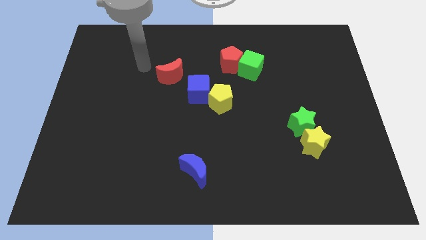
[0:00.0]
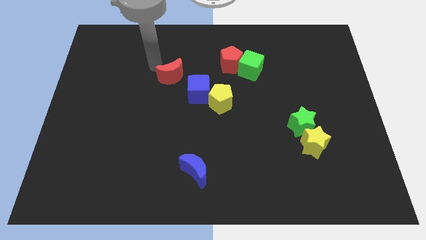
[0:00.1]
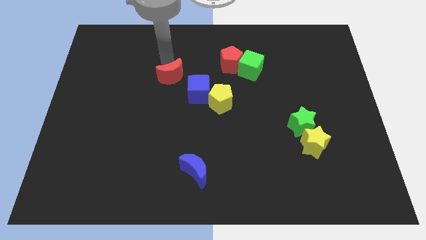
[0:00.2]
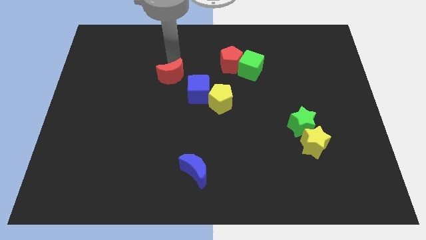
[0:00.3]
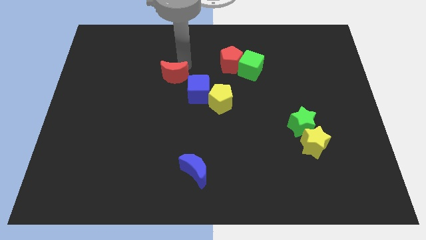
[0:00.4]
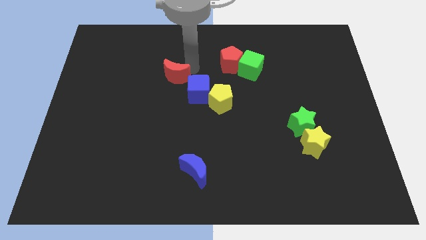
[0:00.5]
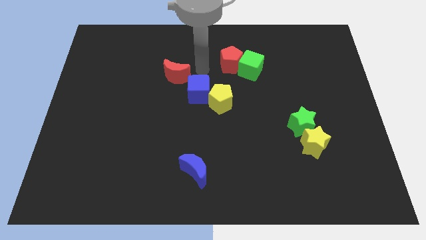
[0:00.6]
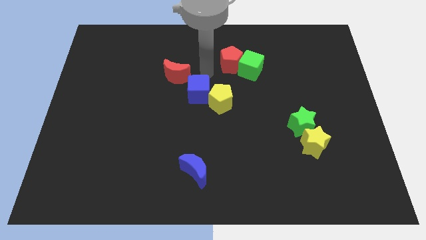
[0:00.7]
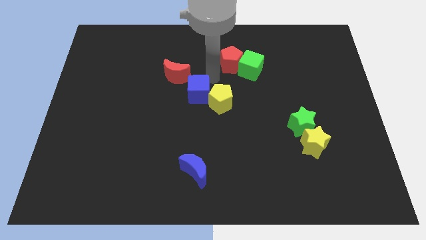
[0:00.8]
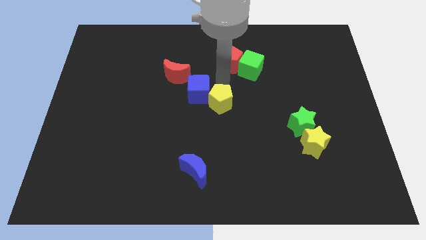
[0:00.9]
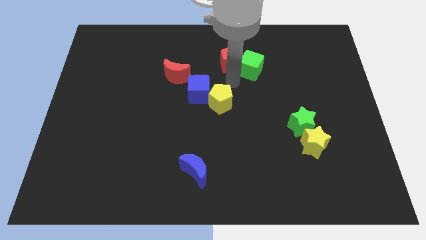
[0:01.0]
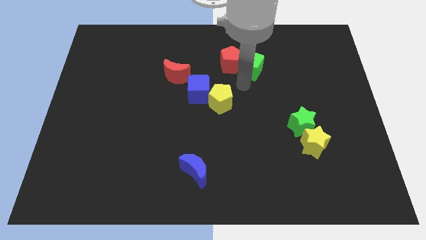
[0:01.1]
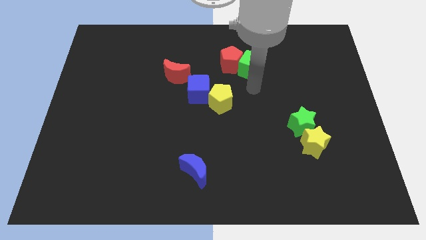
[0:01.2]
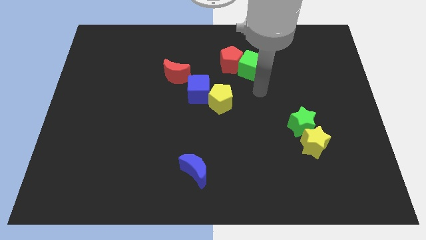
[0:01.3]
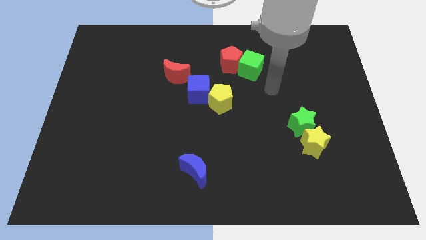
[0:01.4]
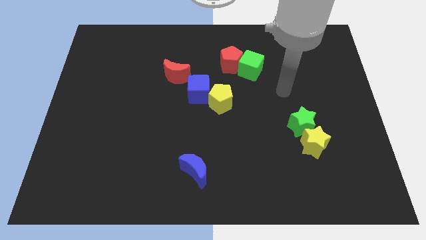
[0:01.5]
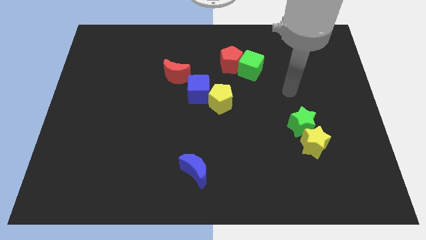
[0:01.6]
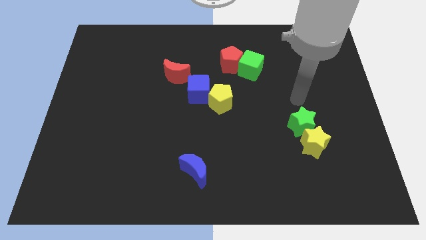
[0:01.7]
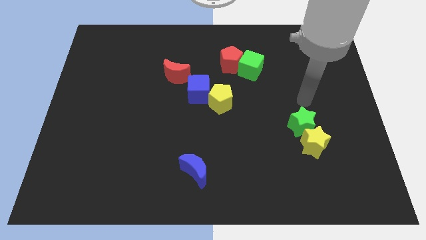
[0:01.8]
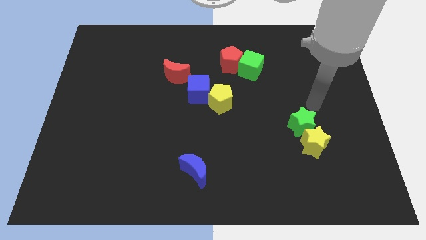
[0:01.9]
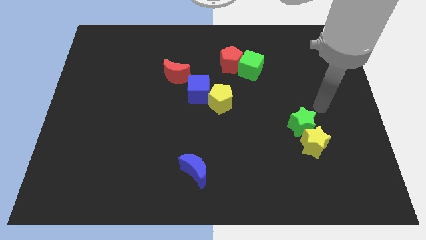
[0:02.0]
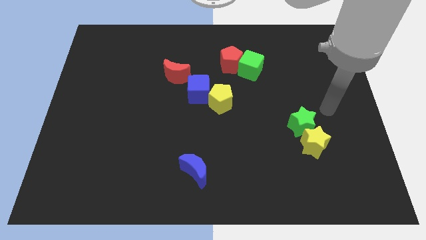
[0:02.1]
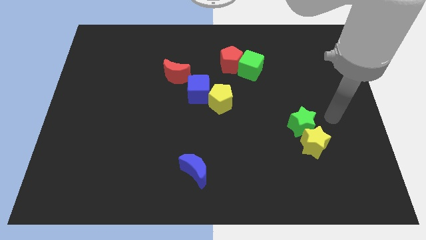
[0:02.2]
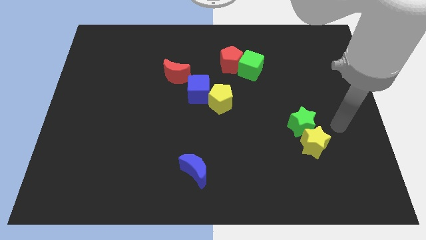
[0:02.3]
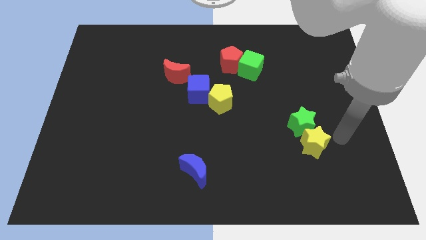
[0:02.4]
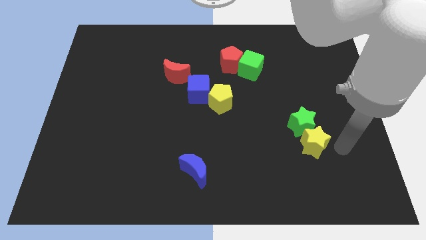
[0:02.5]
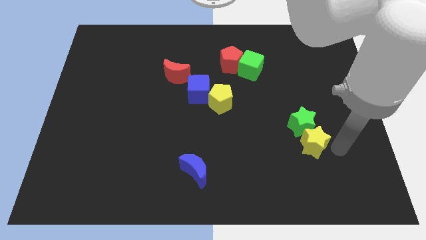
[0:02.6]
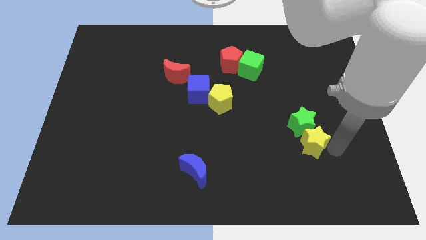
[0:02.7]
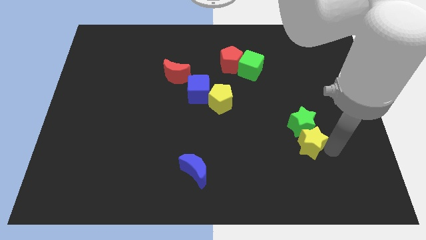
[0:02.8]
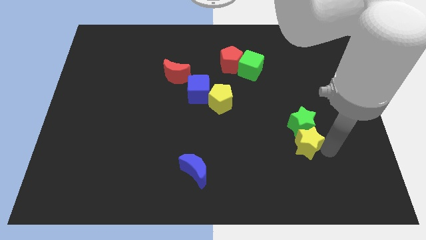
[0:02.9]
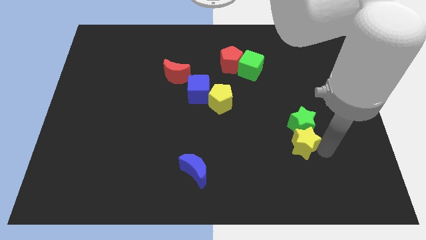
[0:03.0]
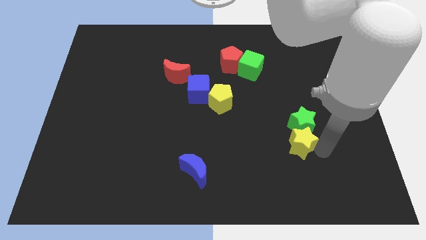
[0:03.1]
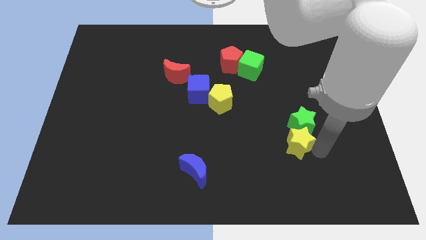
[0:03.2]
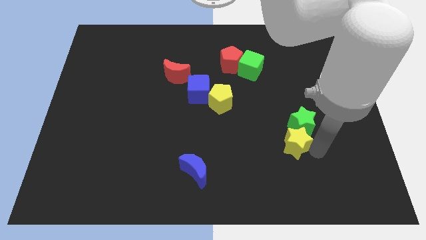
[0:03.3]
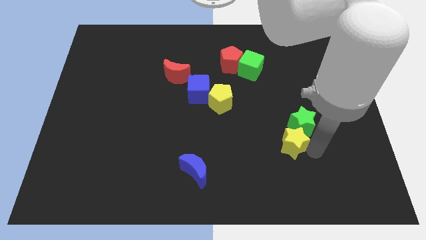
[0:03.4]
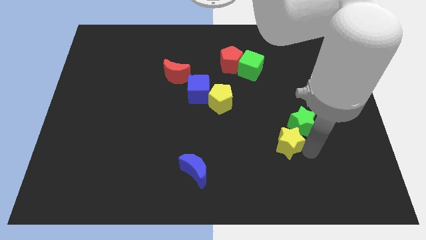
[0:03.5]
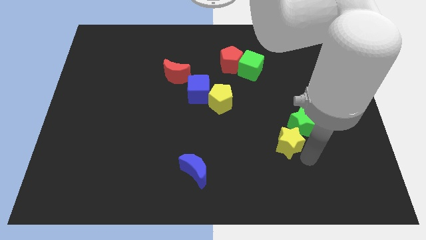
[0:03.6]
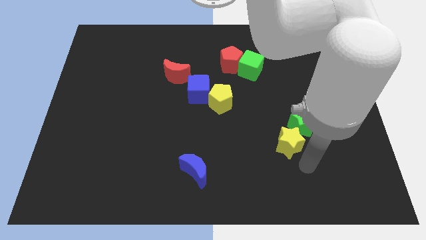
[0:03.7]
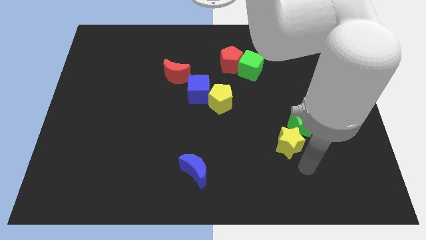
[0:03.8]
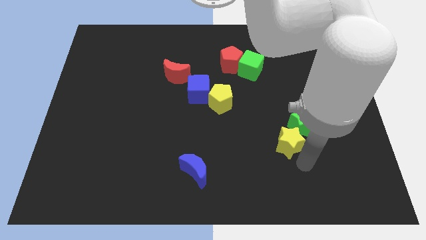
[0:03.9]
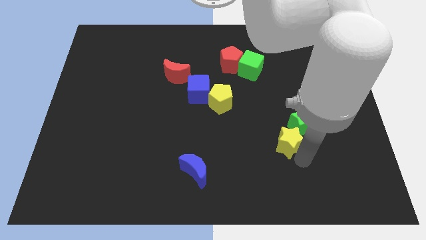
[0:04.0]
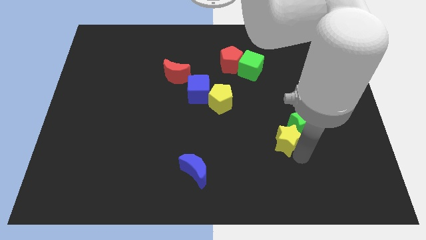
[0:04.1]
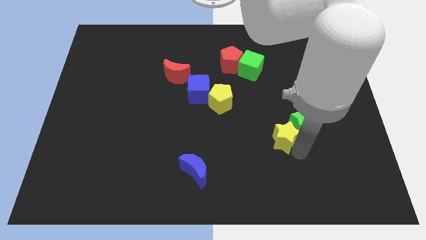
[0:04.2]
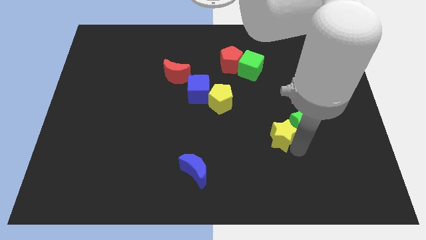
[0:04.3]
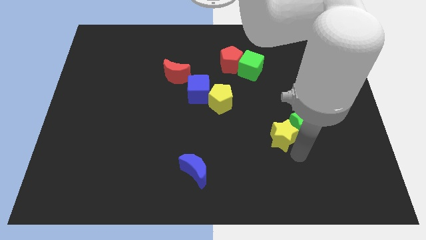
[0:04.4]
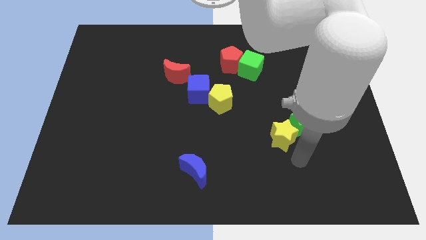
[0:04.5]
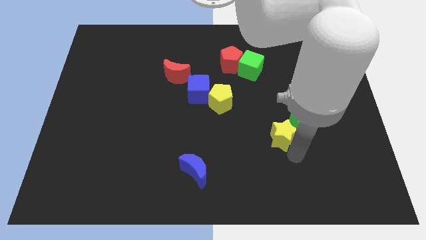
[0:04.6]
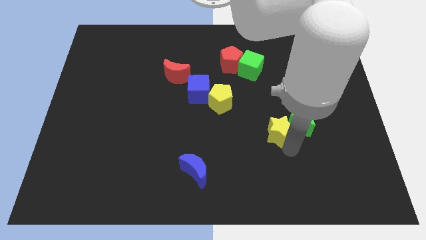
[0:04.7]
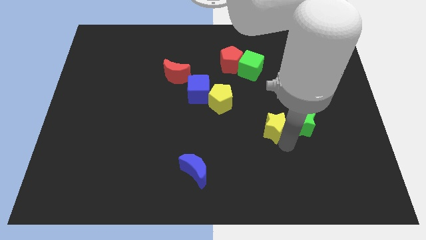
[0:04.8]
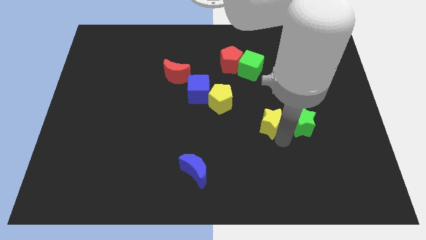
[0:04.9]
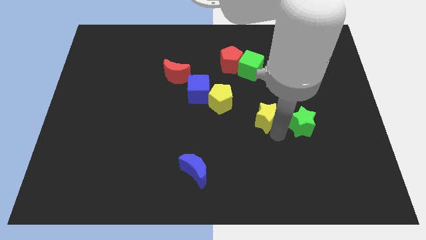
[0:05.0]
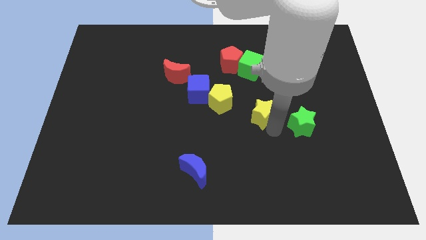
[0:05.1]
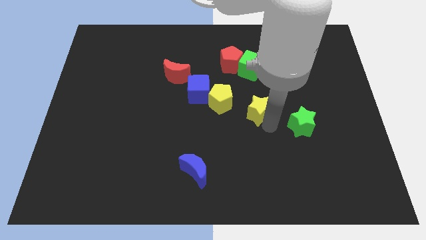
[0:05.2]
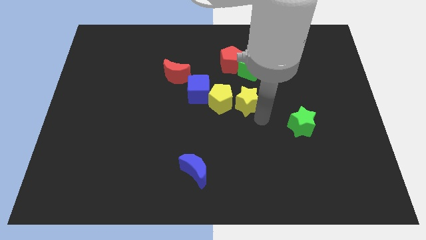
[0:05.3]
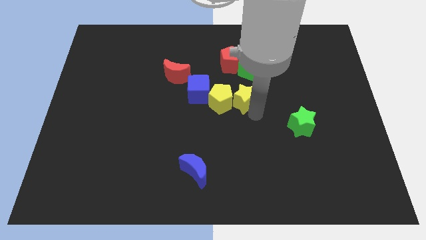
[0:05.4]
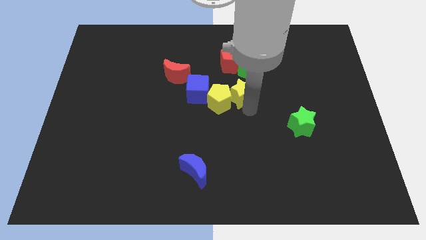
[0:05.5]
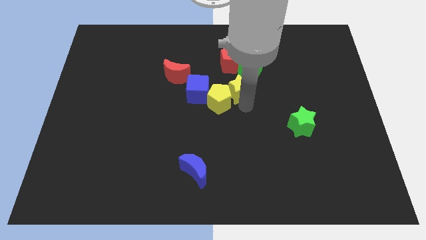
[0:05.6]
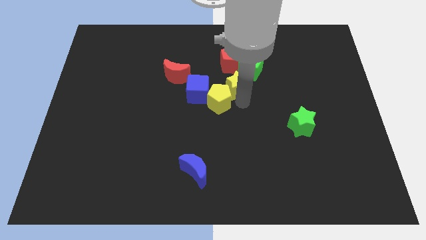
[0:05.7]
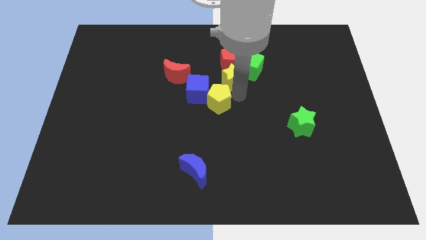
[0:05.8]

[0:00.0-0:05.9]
put the yellow star next to the red pentagon

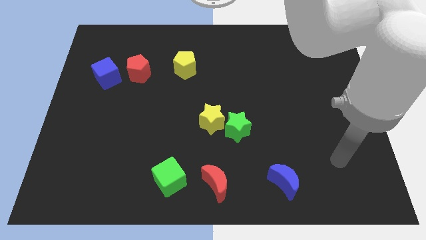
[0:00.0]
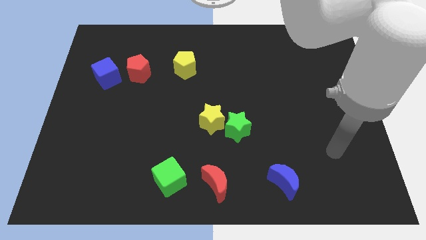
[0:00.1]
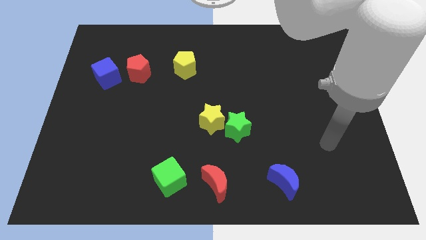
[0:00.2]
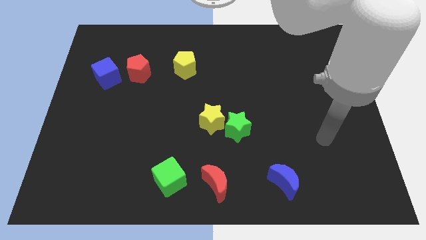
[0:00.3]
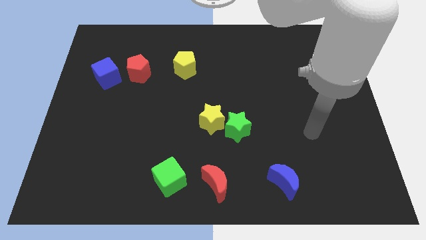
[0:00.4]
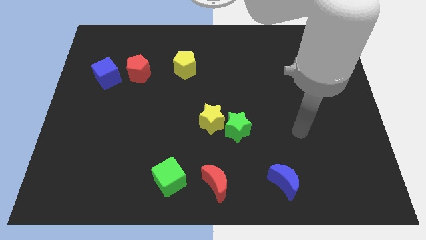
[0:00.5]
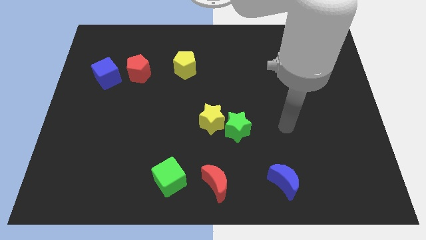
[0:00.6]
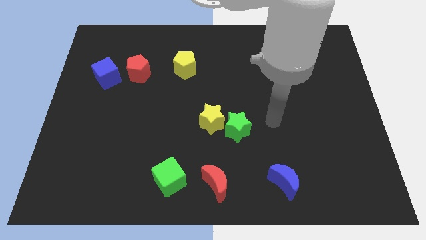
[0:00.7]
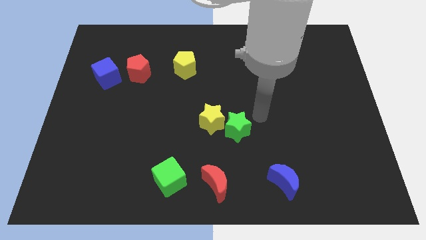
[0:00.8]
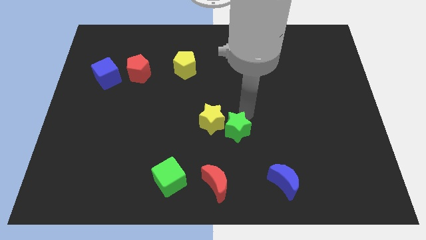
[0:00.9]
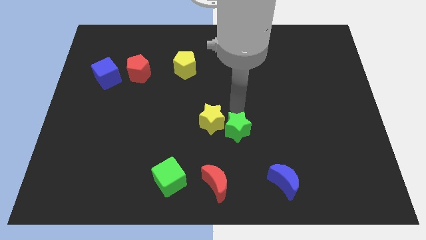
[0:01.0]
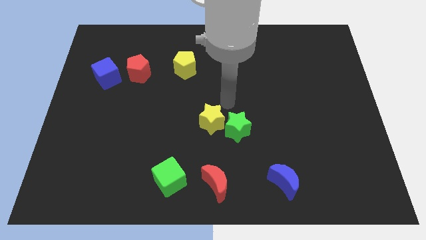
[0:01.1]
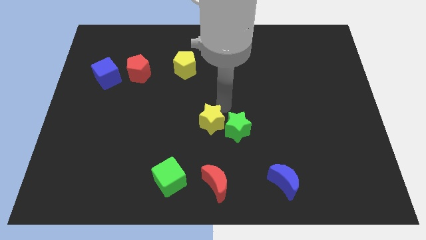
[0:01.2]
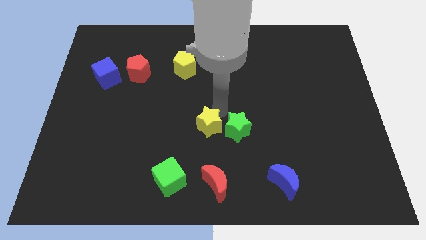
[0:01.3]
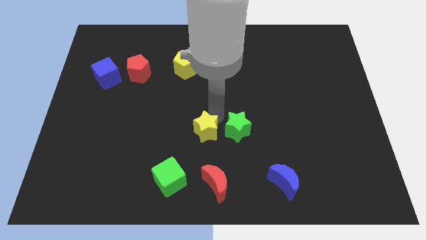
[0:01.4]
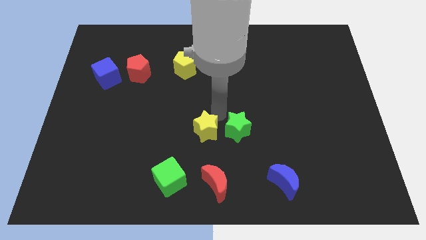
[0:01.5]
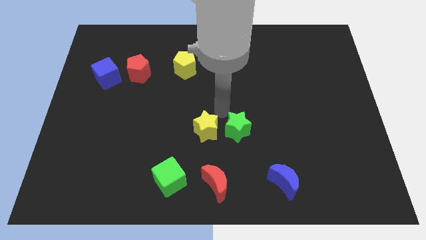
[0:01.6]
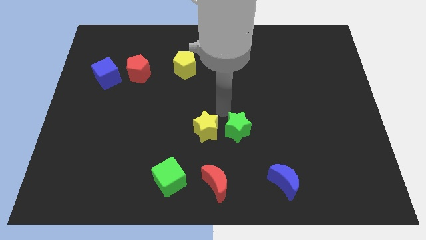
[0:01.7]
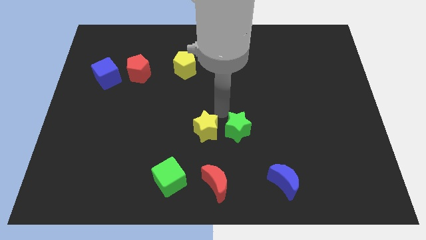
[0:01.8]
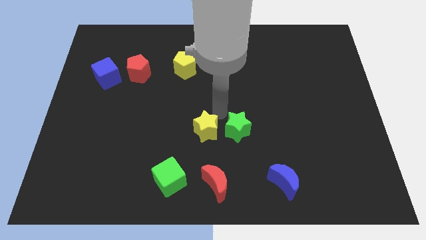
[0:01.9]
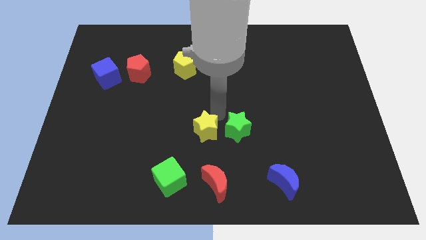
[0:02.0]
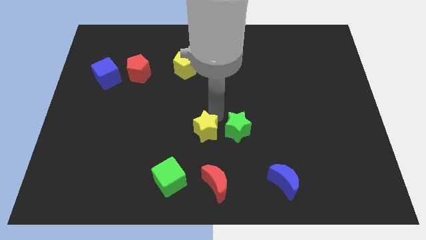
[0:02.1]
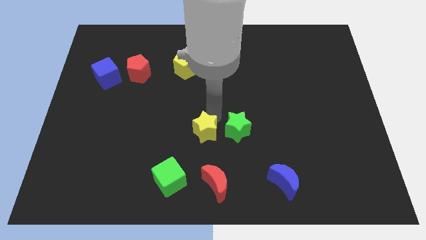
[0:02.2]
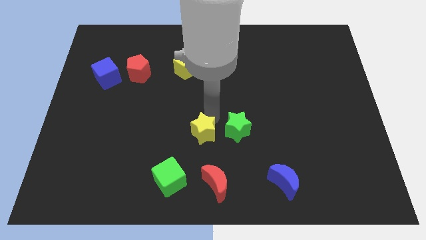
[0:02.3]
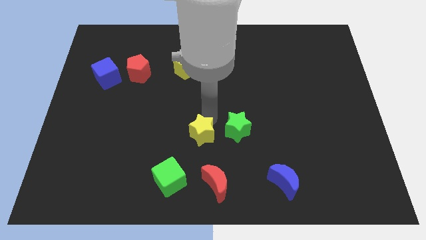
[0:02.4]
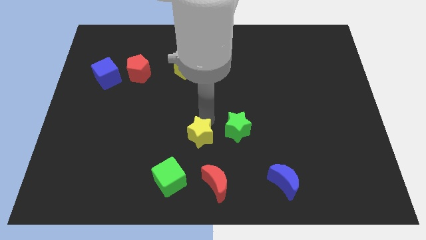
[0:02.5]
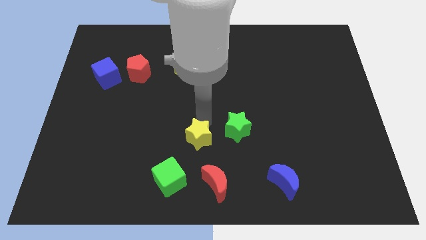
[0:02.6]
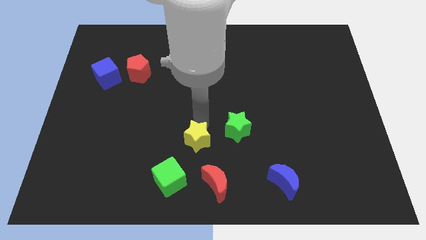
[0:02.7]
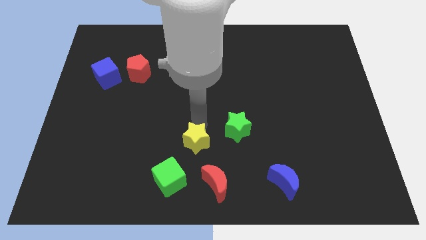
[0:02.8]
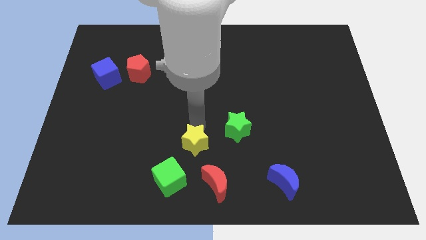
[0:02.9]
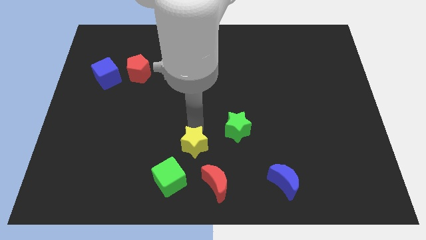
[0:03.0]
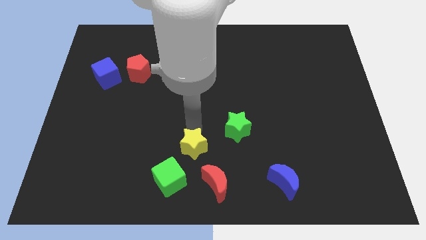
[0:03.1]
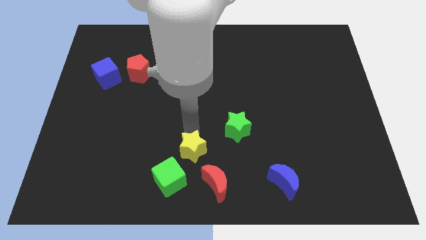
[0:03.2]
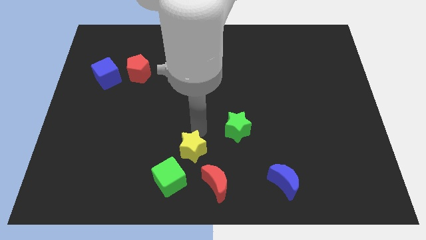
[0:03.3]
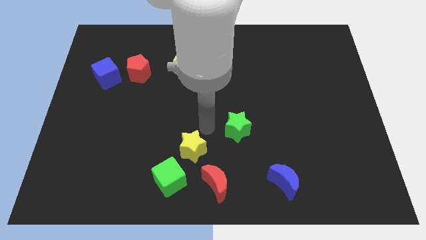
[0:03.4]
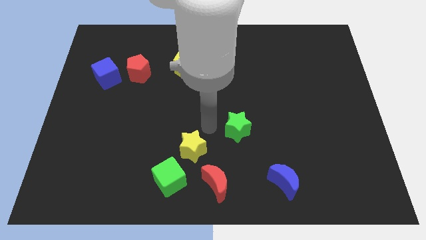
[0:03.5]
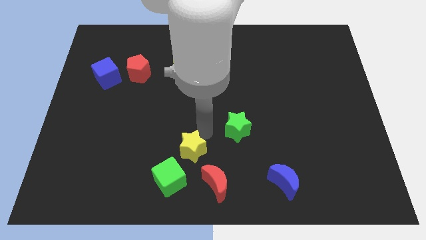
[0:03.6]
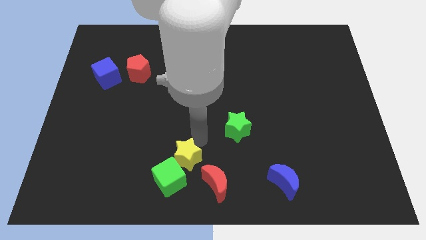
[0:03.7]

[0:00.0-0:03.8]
push the yellow star close to the green cube
